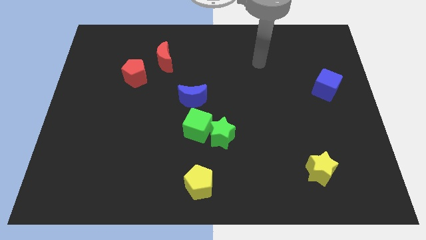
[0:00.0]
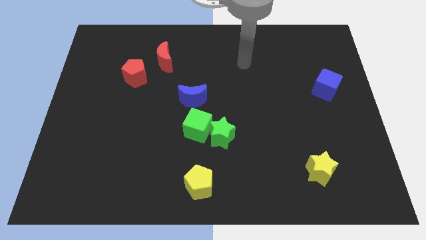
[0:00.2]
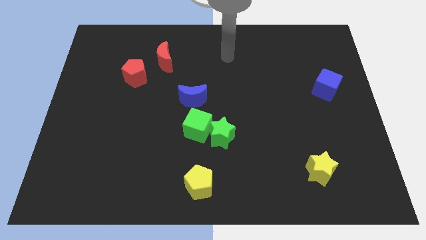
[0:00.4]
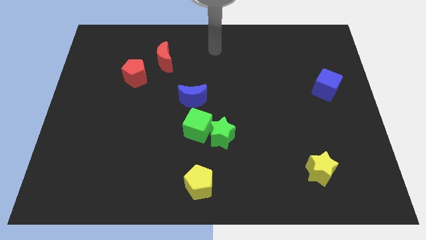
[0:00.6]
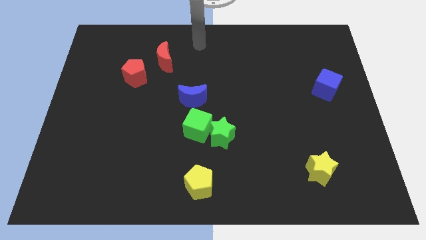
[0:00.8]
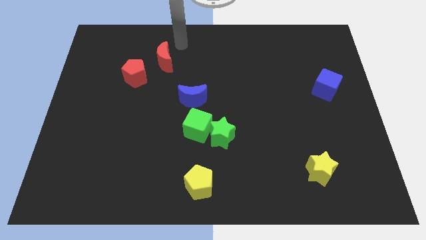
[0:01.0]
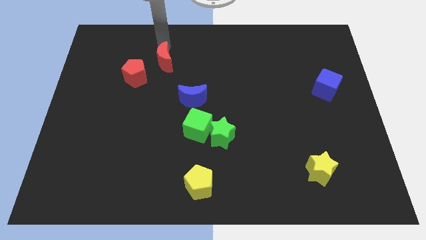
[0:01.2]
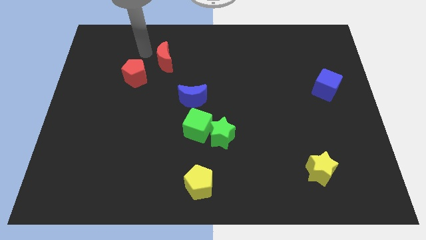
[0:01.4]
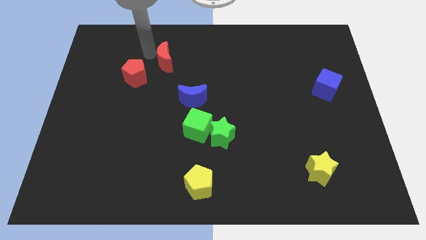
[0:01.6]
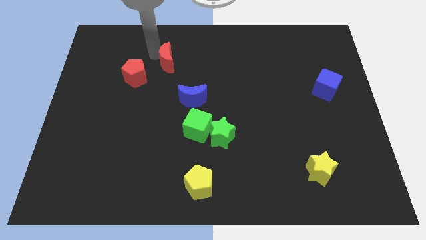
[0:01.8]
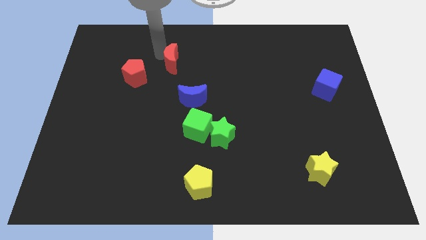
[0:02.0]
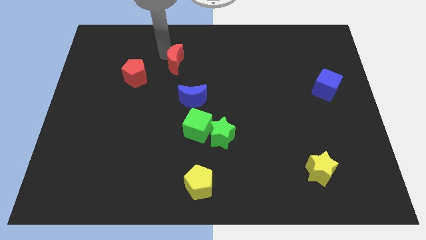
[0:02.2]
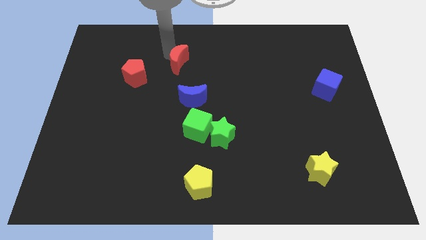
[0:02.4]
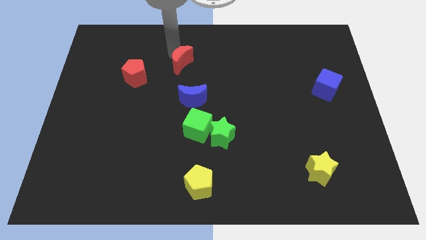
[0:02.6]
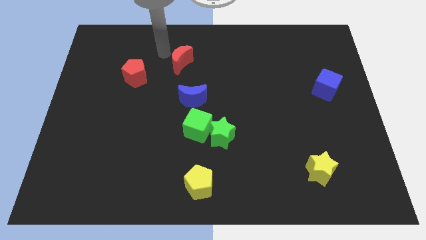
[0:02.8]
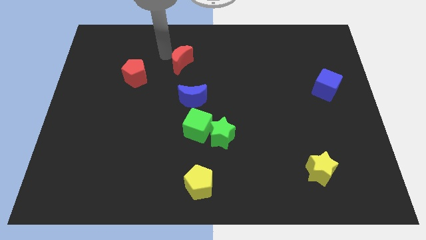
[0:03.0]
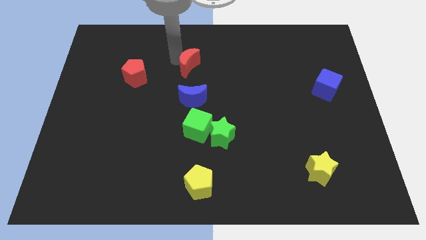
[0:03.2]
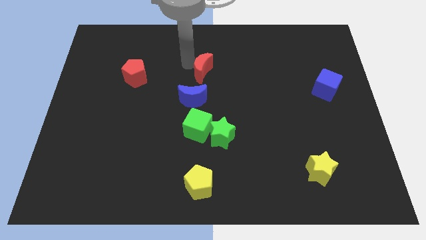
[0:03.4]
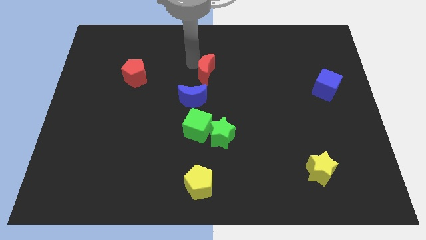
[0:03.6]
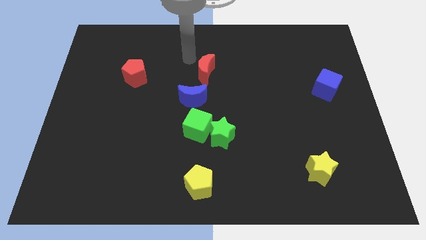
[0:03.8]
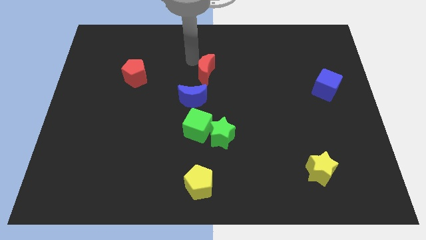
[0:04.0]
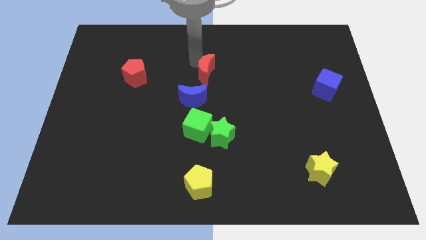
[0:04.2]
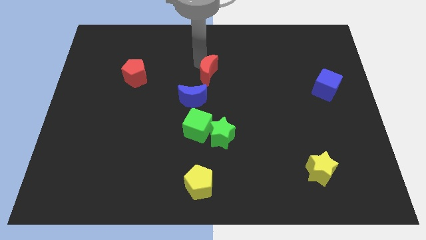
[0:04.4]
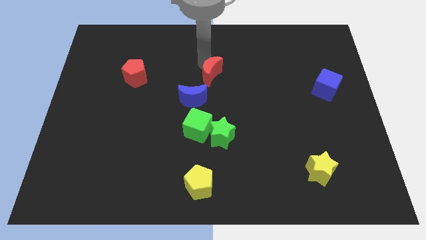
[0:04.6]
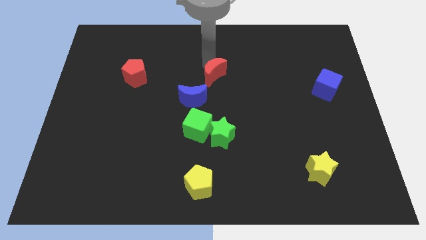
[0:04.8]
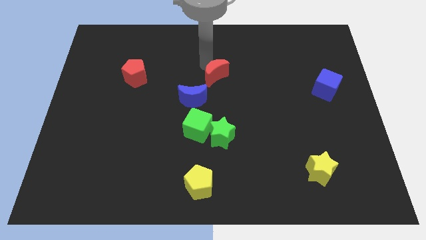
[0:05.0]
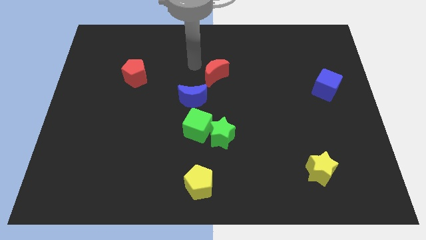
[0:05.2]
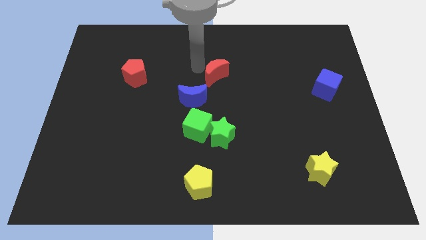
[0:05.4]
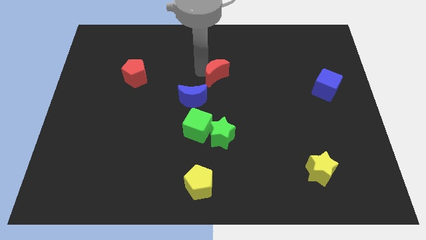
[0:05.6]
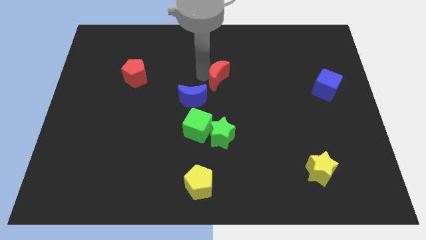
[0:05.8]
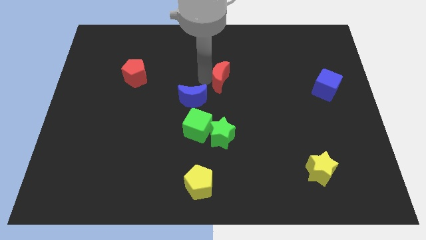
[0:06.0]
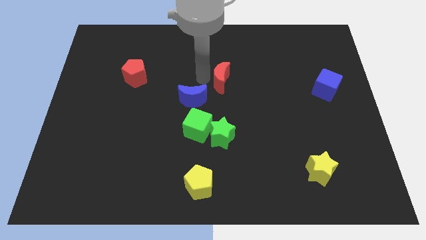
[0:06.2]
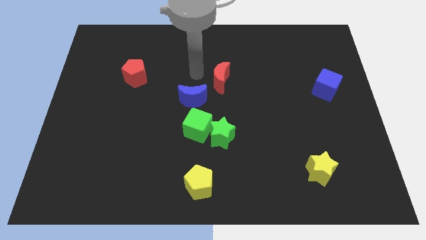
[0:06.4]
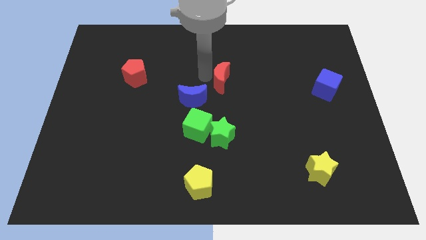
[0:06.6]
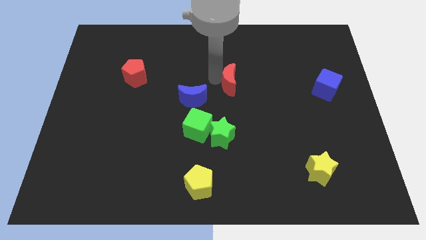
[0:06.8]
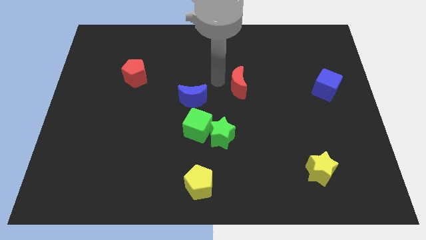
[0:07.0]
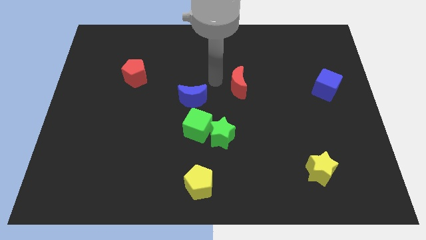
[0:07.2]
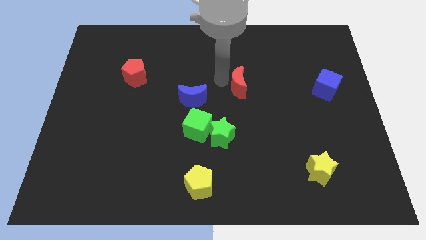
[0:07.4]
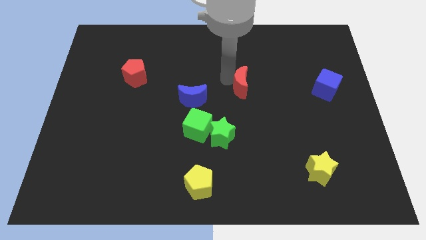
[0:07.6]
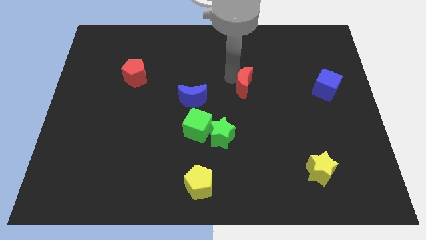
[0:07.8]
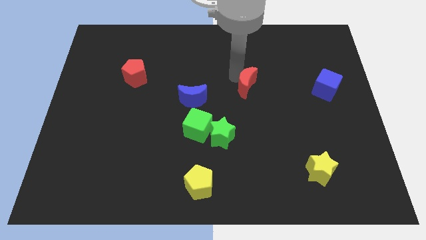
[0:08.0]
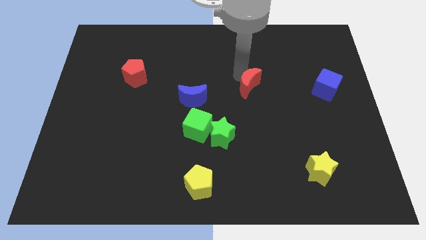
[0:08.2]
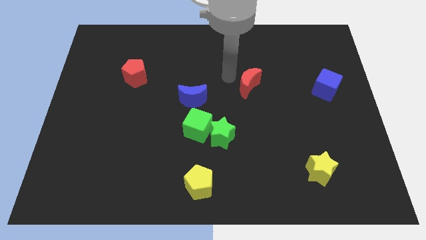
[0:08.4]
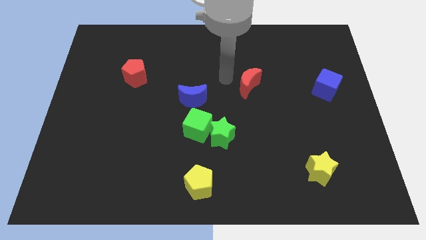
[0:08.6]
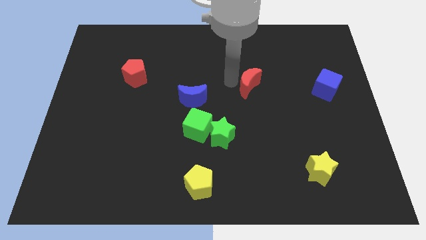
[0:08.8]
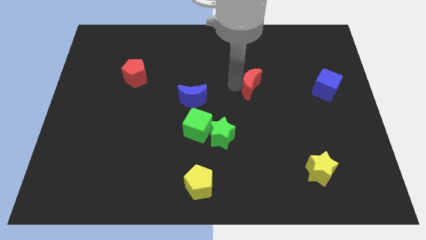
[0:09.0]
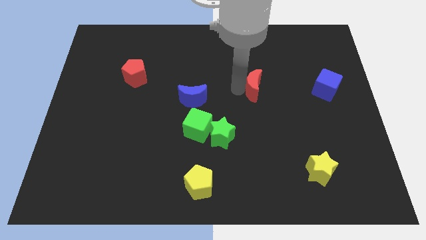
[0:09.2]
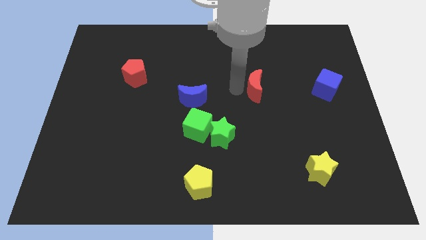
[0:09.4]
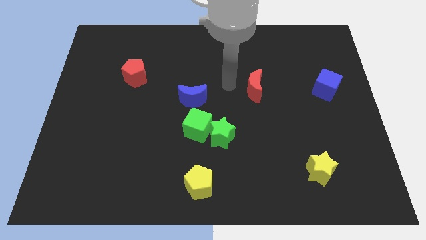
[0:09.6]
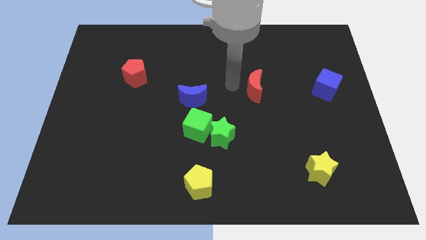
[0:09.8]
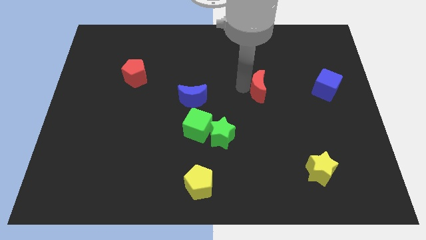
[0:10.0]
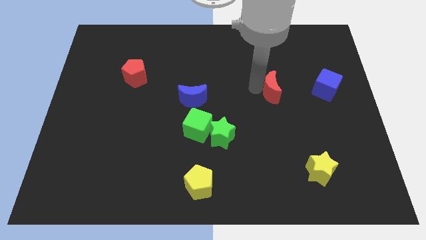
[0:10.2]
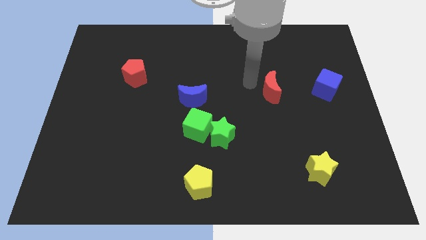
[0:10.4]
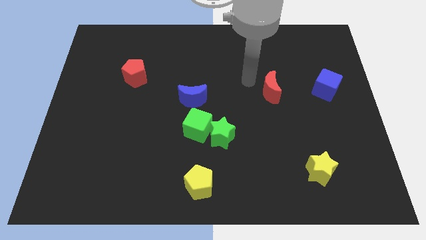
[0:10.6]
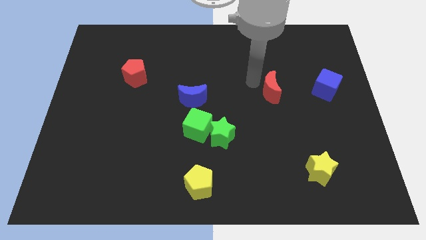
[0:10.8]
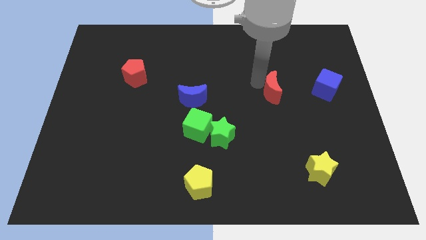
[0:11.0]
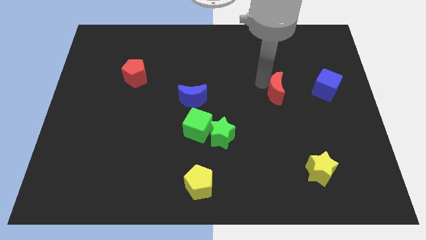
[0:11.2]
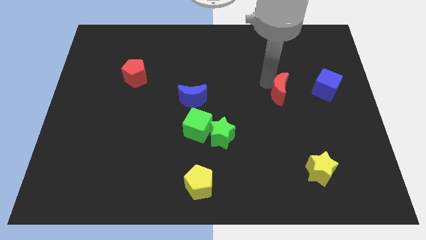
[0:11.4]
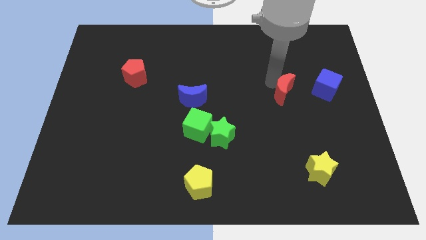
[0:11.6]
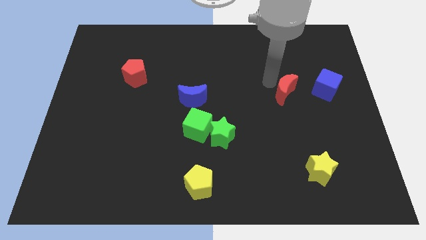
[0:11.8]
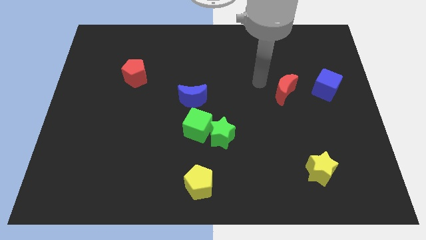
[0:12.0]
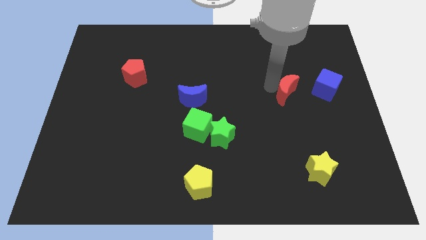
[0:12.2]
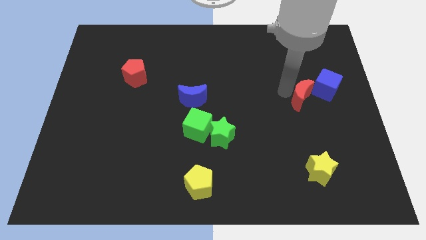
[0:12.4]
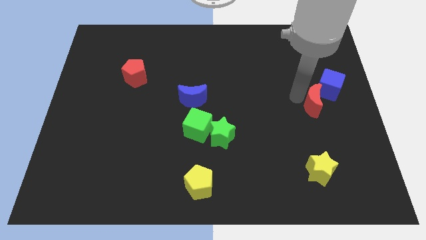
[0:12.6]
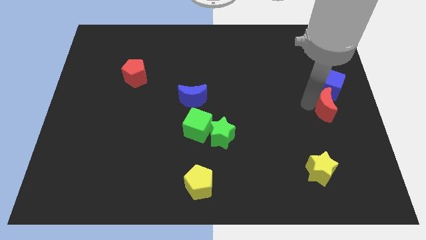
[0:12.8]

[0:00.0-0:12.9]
push the red moon to the center right

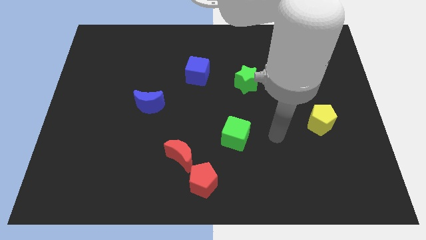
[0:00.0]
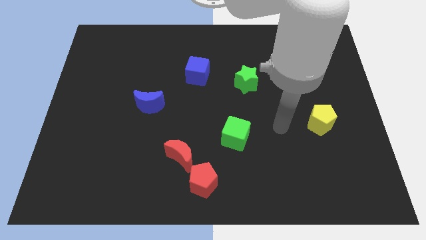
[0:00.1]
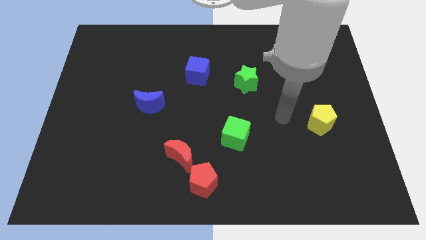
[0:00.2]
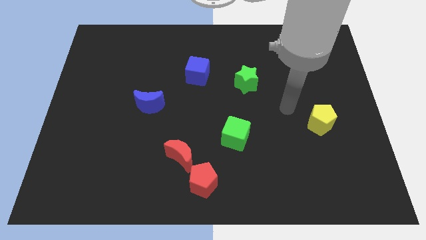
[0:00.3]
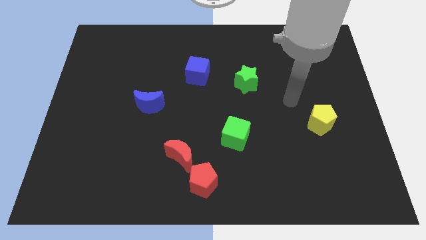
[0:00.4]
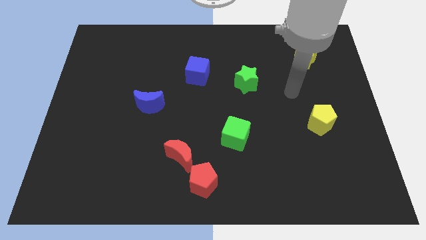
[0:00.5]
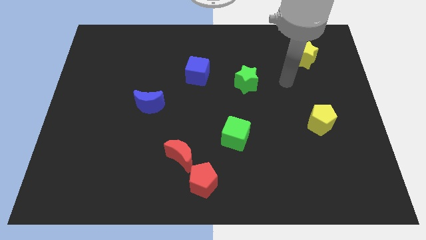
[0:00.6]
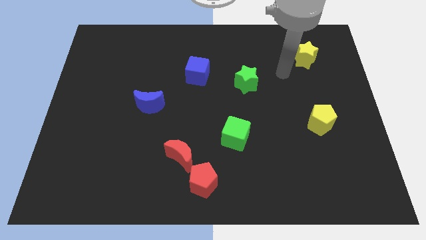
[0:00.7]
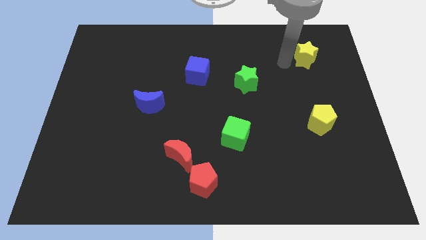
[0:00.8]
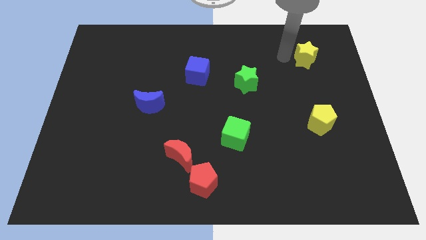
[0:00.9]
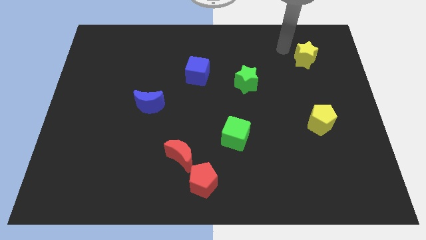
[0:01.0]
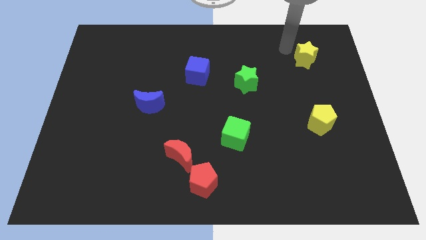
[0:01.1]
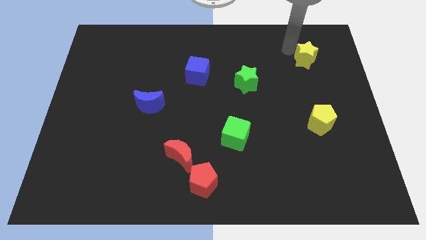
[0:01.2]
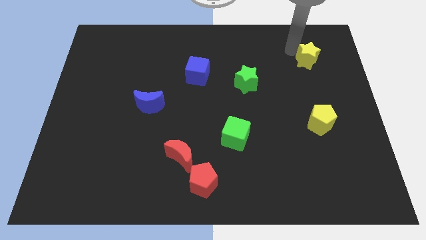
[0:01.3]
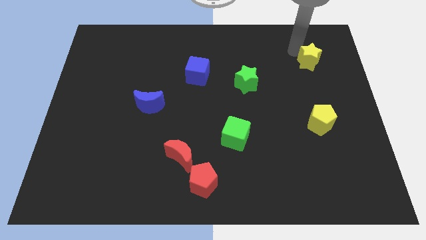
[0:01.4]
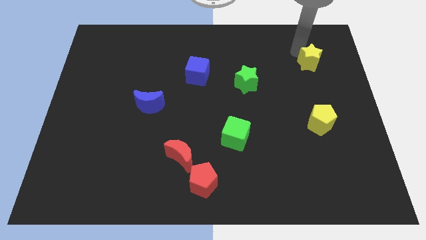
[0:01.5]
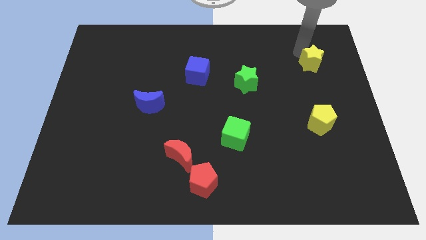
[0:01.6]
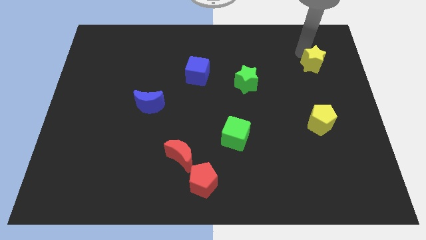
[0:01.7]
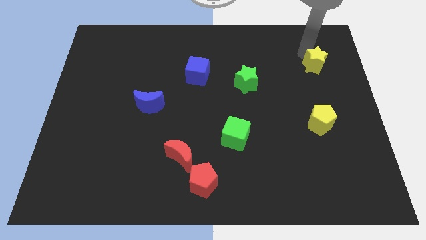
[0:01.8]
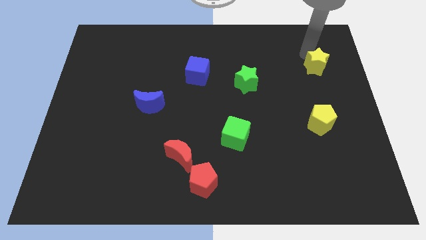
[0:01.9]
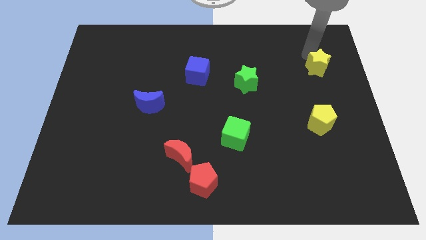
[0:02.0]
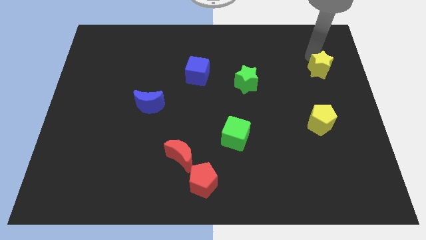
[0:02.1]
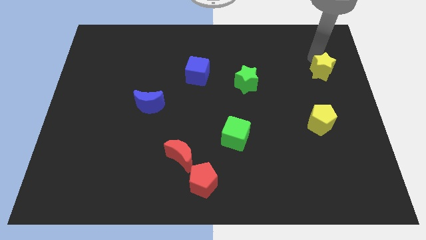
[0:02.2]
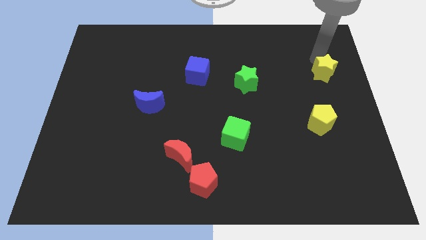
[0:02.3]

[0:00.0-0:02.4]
put the yellow star to the right side
